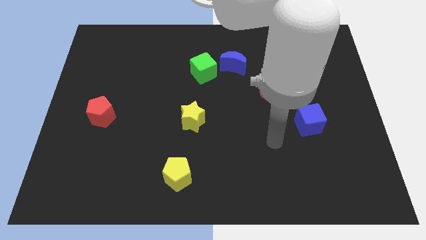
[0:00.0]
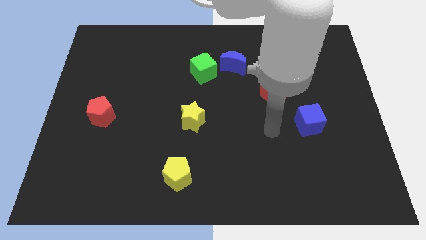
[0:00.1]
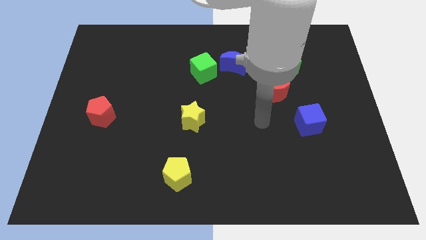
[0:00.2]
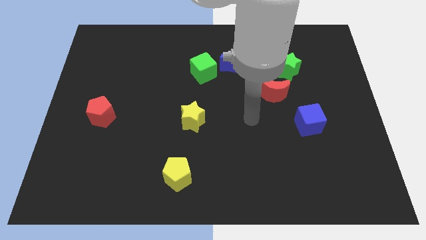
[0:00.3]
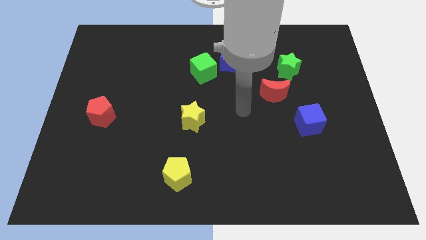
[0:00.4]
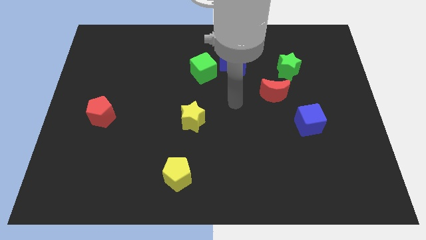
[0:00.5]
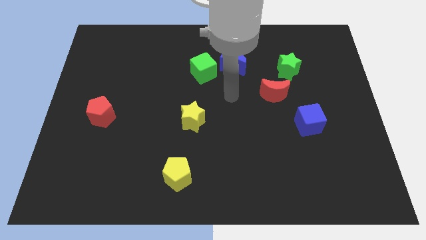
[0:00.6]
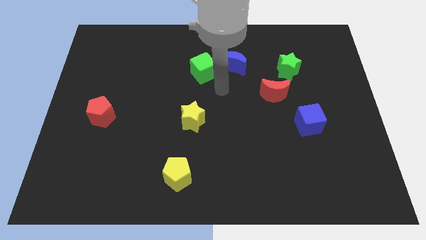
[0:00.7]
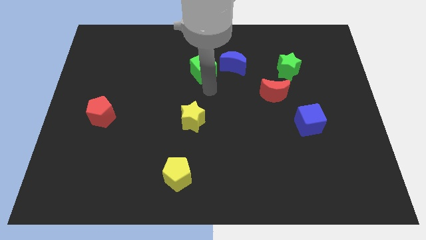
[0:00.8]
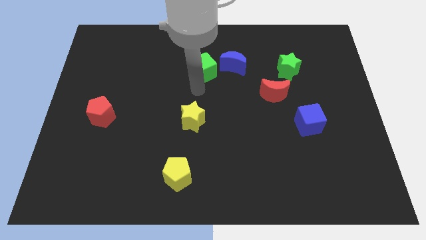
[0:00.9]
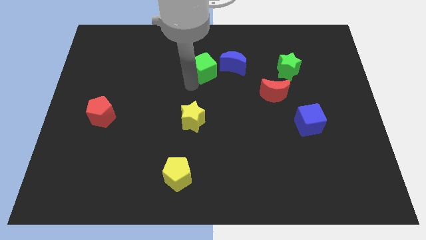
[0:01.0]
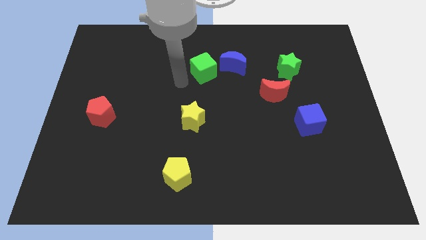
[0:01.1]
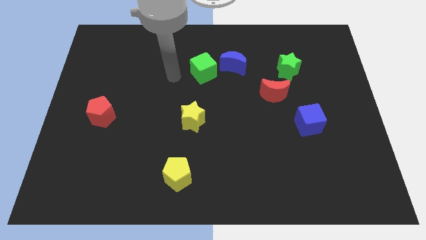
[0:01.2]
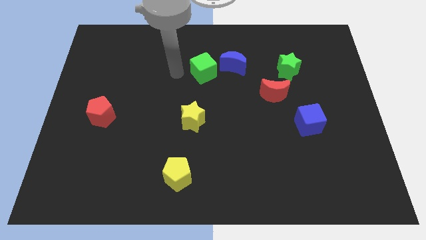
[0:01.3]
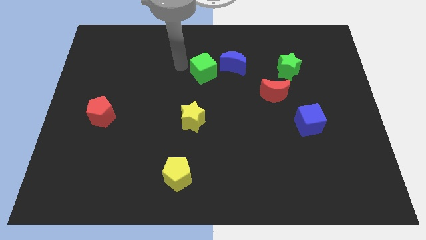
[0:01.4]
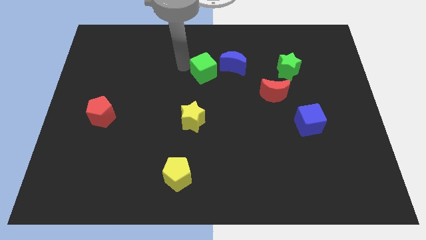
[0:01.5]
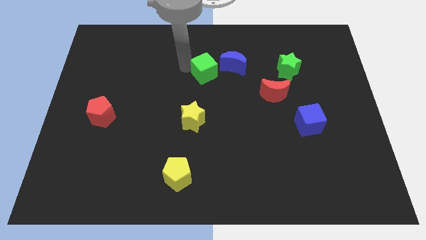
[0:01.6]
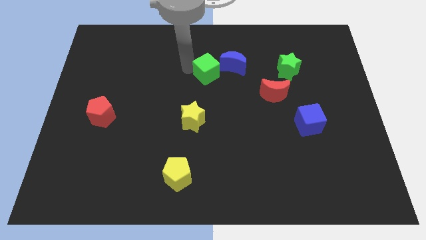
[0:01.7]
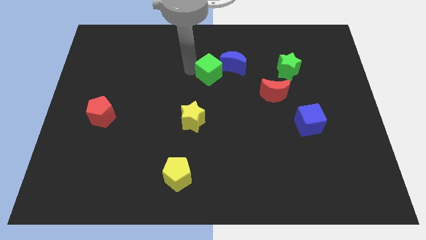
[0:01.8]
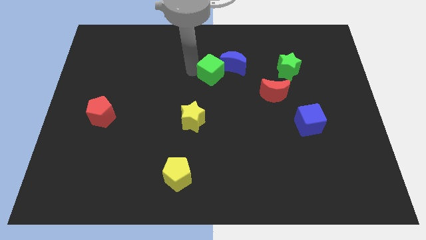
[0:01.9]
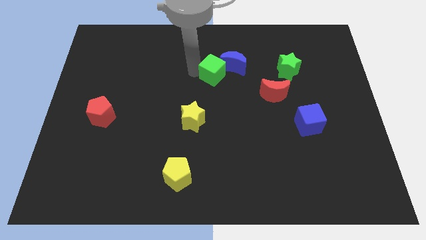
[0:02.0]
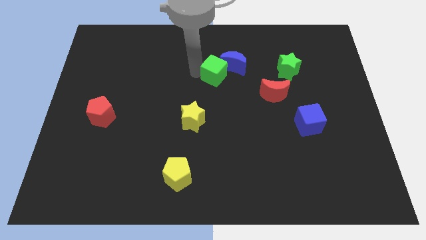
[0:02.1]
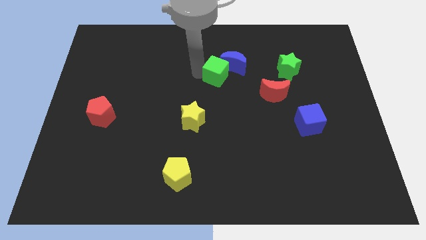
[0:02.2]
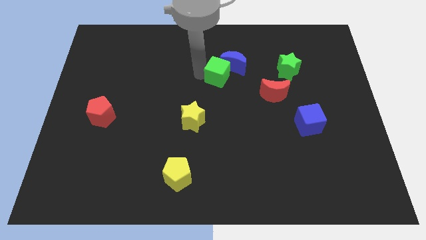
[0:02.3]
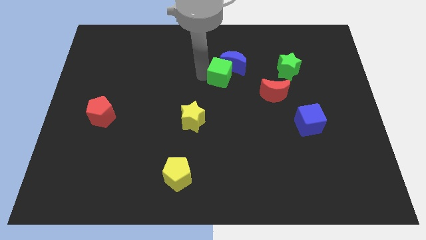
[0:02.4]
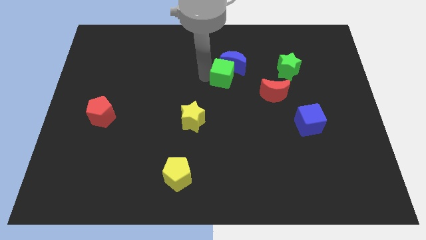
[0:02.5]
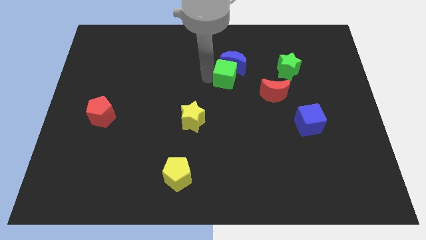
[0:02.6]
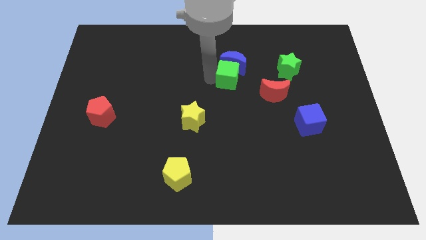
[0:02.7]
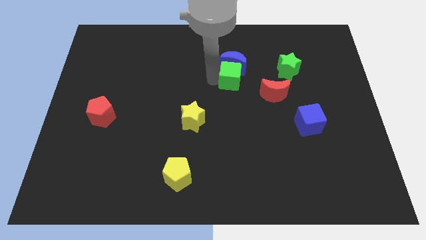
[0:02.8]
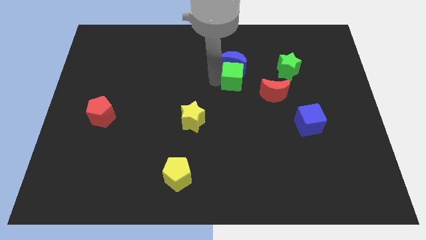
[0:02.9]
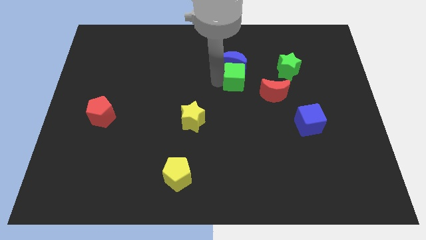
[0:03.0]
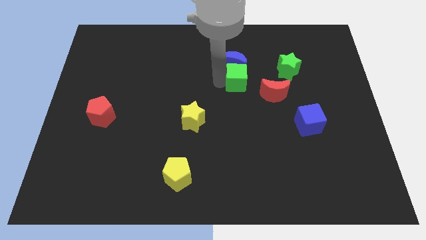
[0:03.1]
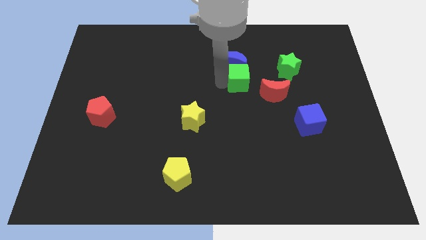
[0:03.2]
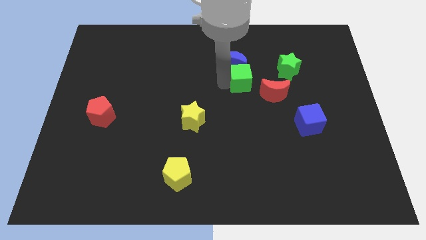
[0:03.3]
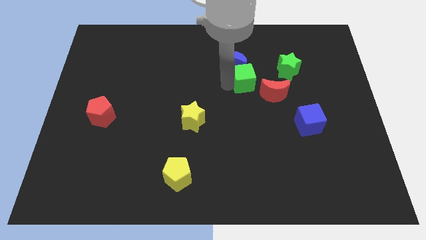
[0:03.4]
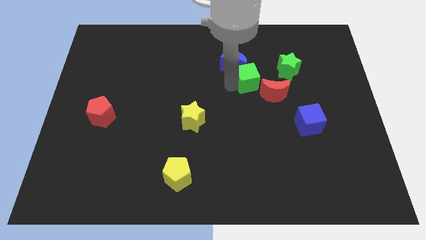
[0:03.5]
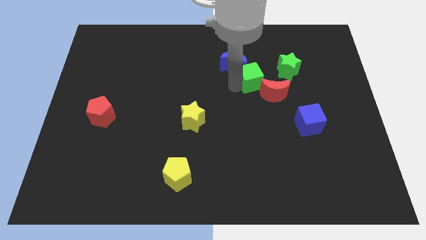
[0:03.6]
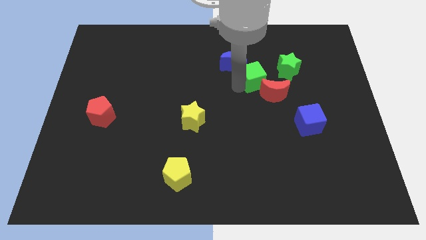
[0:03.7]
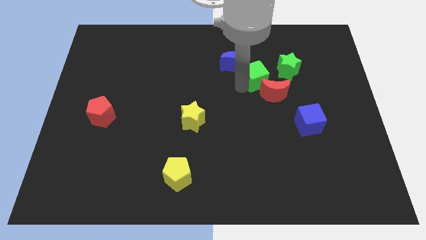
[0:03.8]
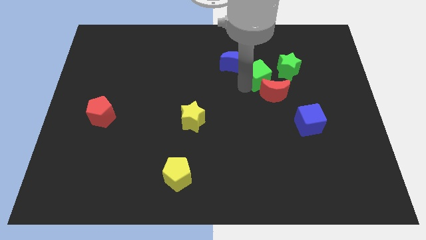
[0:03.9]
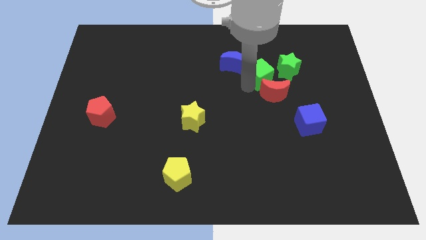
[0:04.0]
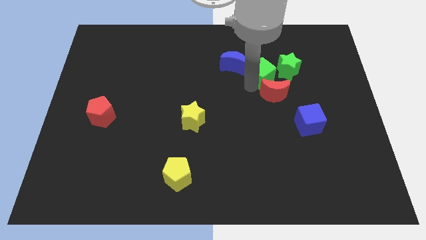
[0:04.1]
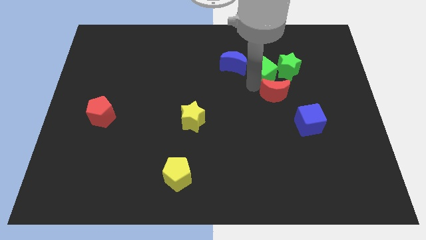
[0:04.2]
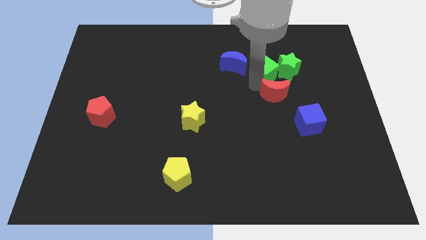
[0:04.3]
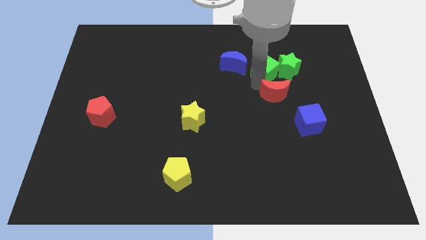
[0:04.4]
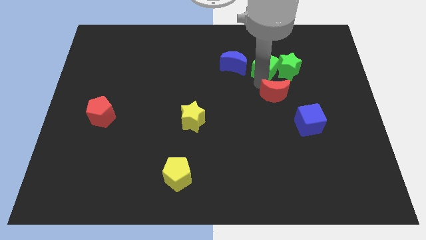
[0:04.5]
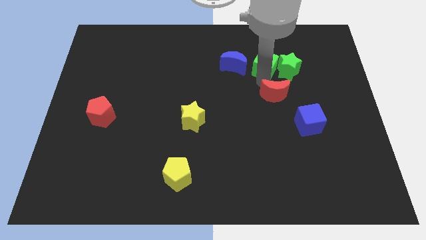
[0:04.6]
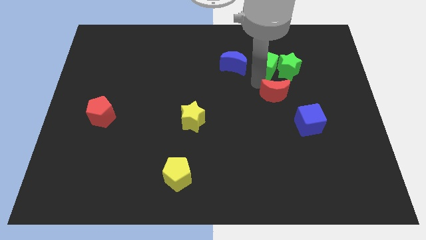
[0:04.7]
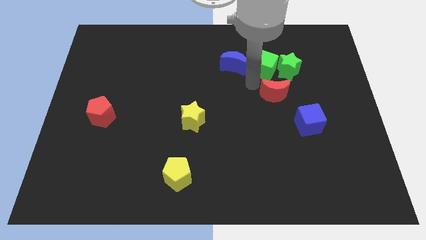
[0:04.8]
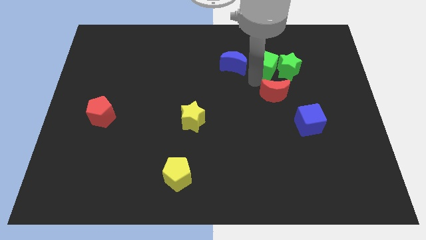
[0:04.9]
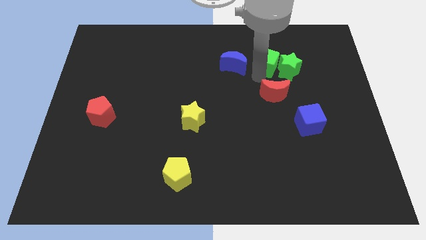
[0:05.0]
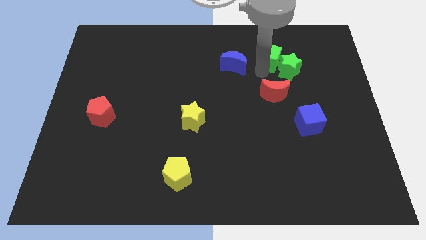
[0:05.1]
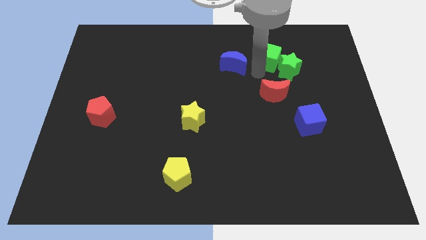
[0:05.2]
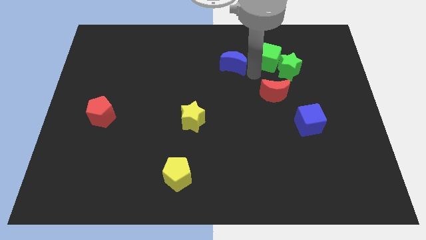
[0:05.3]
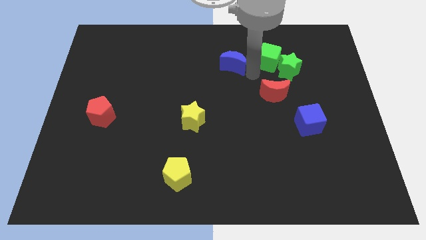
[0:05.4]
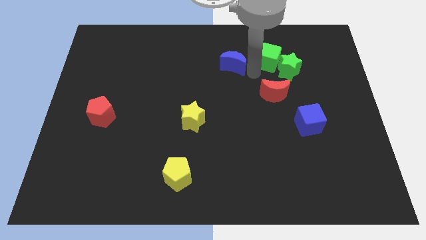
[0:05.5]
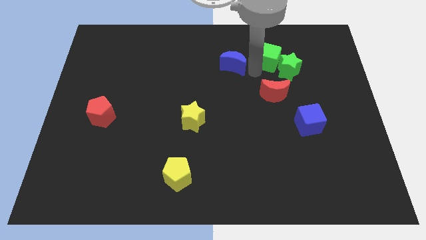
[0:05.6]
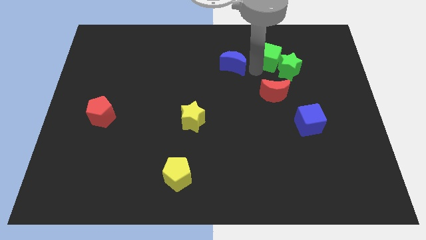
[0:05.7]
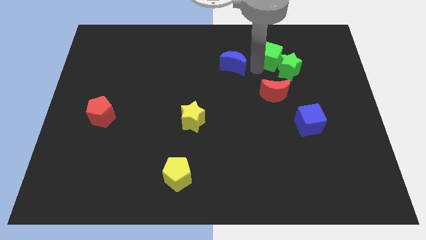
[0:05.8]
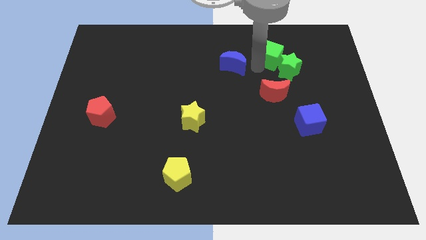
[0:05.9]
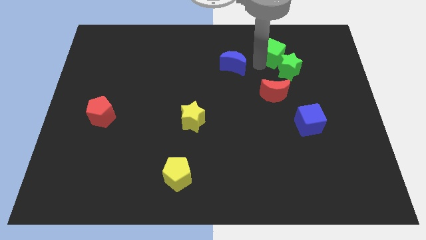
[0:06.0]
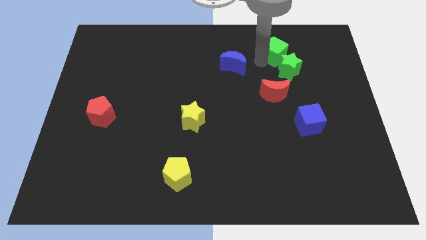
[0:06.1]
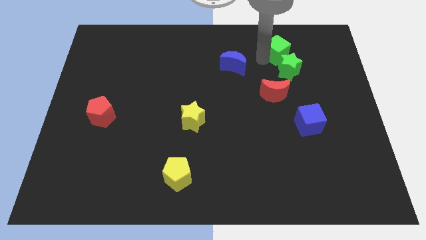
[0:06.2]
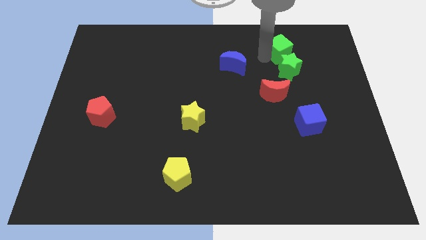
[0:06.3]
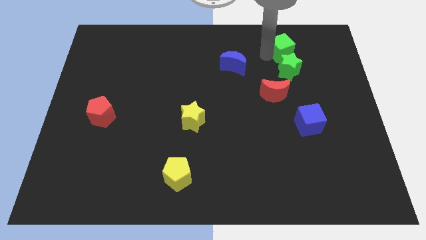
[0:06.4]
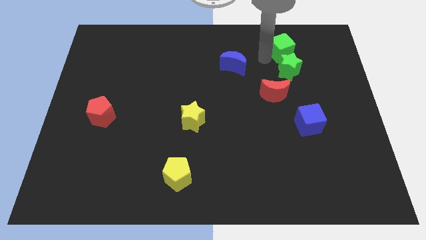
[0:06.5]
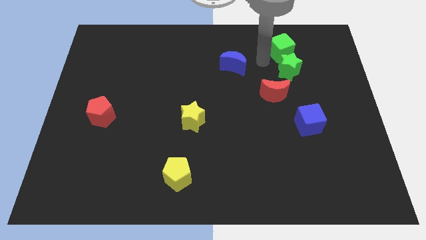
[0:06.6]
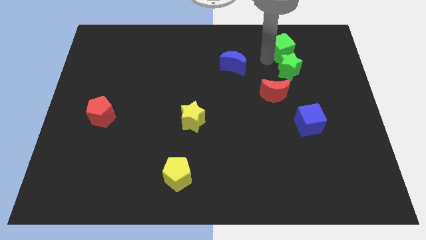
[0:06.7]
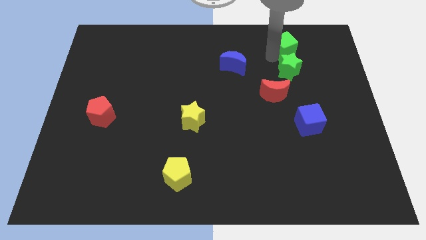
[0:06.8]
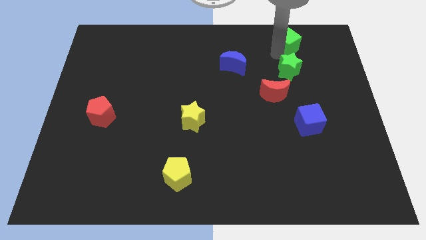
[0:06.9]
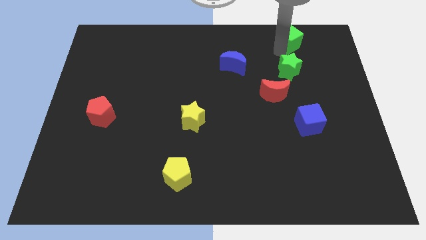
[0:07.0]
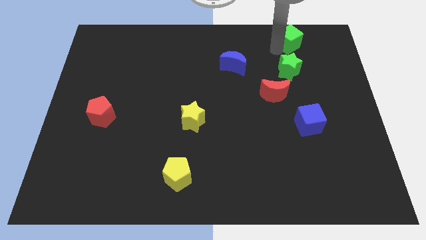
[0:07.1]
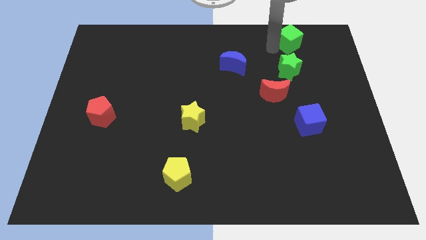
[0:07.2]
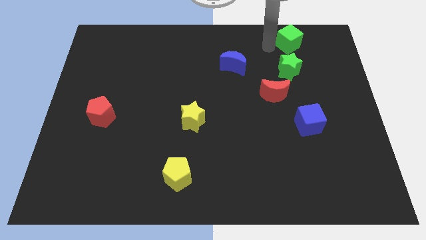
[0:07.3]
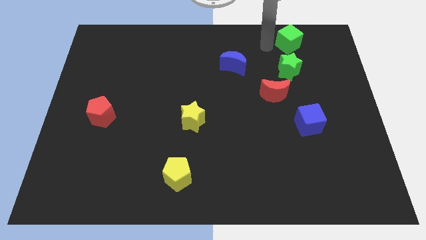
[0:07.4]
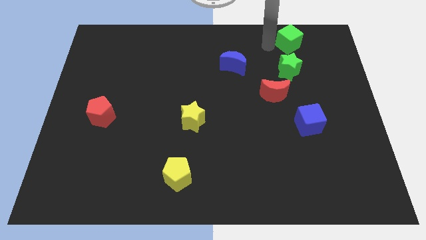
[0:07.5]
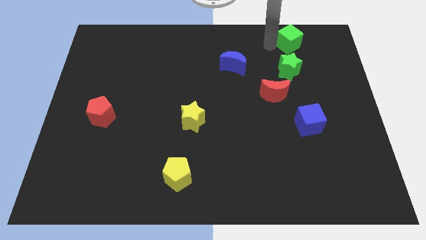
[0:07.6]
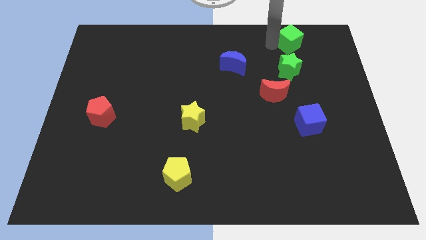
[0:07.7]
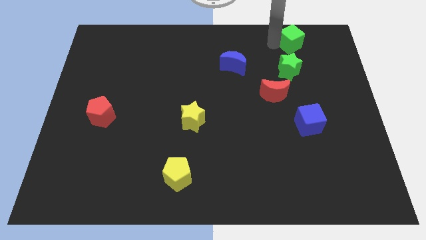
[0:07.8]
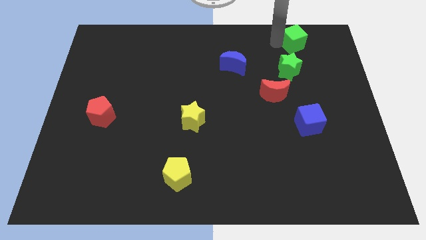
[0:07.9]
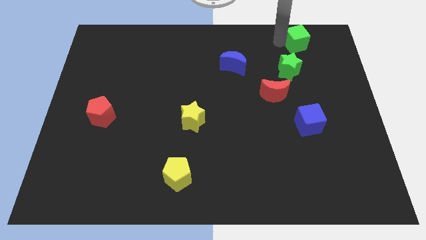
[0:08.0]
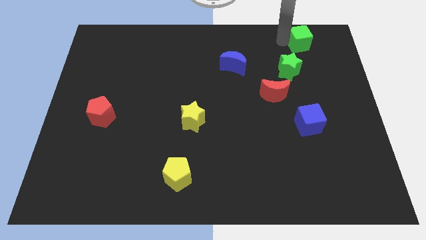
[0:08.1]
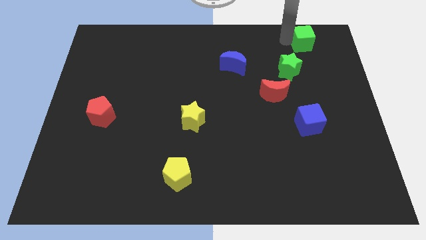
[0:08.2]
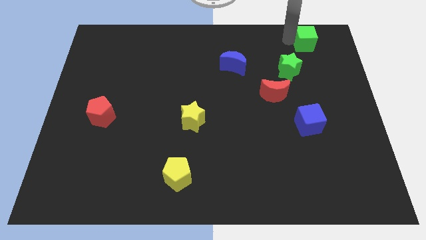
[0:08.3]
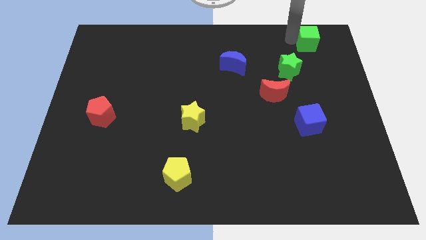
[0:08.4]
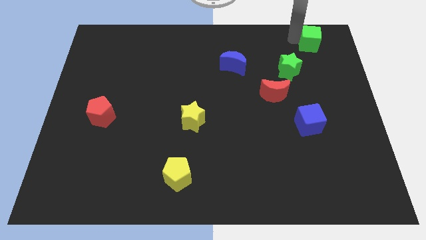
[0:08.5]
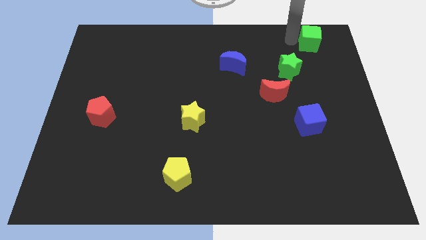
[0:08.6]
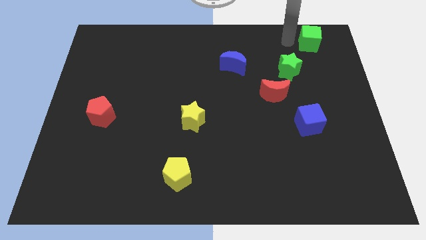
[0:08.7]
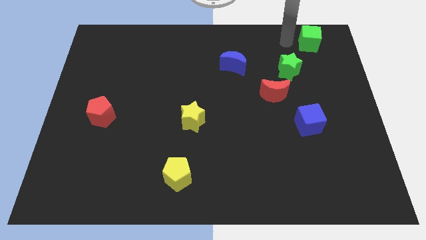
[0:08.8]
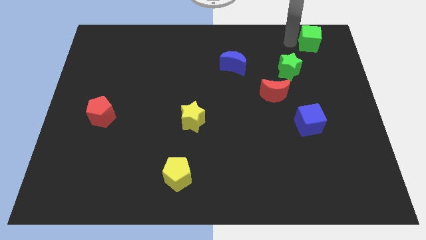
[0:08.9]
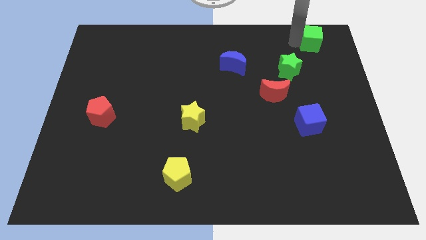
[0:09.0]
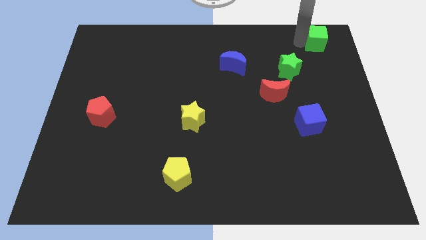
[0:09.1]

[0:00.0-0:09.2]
move the green cube to the upper right corner
